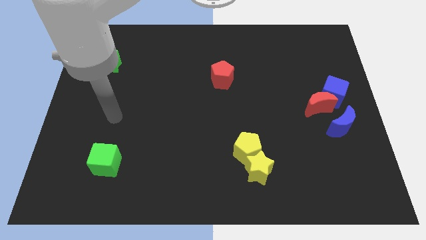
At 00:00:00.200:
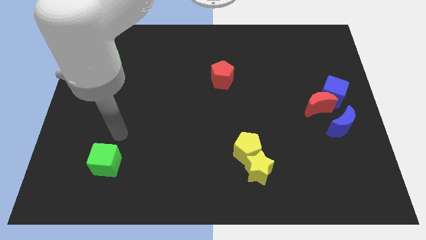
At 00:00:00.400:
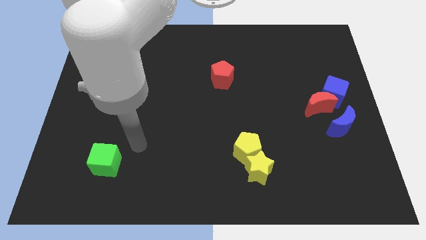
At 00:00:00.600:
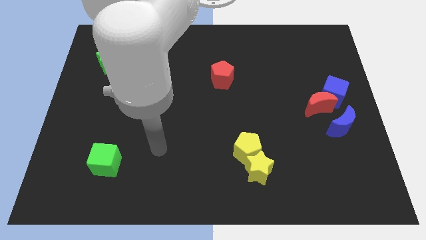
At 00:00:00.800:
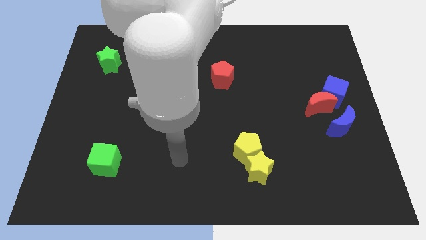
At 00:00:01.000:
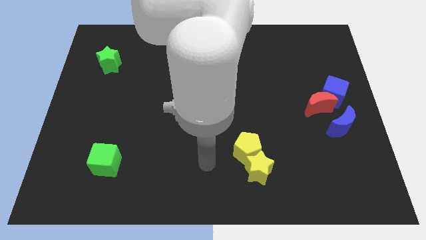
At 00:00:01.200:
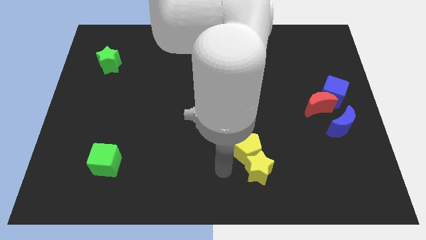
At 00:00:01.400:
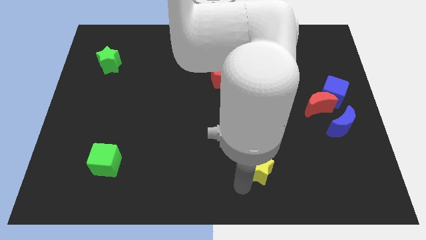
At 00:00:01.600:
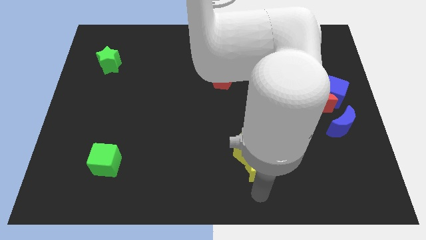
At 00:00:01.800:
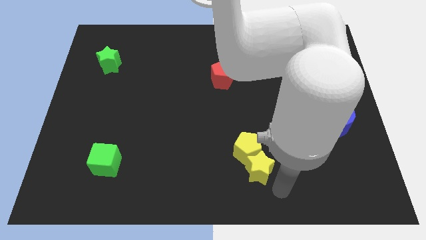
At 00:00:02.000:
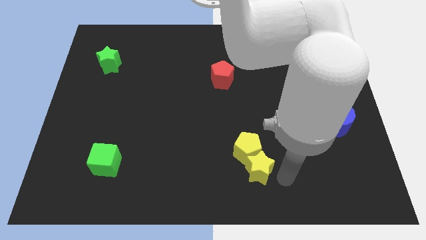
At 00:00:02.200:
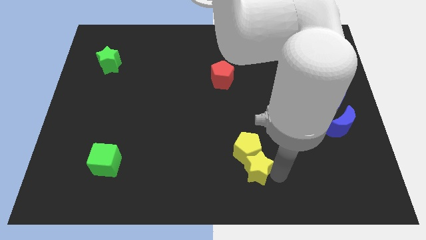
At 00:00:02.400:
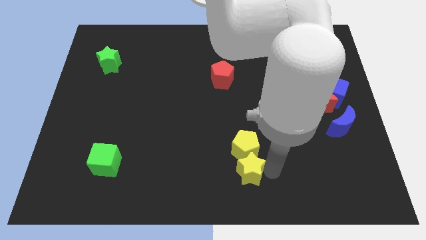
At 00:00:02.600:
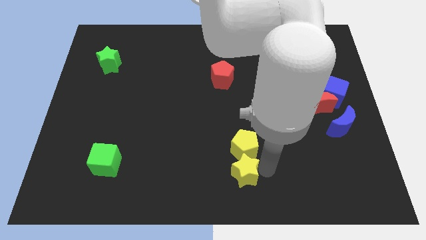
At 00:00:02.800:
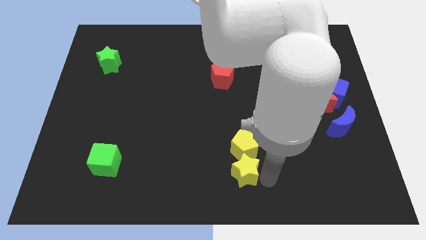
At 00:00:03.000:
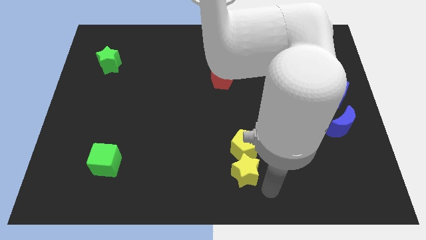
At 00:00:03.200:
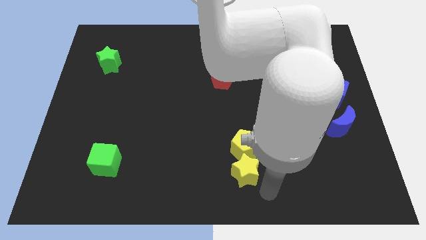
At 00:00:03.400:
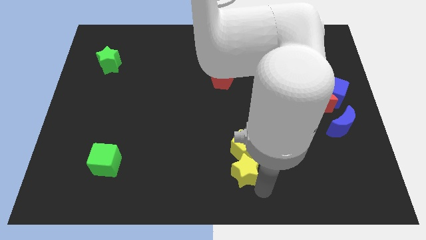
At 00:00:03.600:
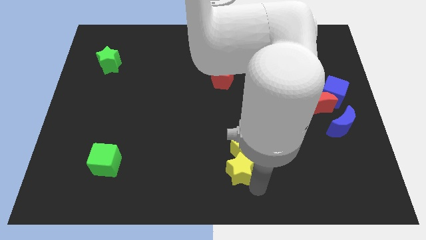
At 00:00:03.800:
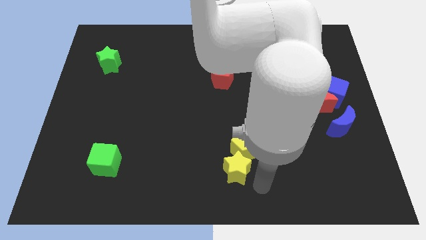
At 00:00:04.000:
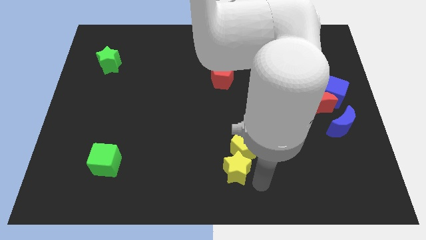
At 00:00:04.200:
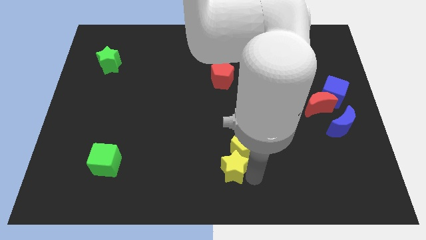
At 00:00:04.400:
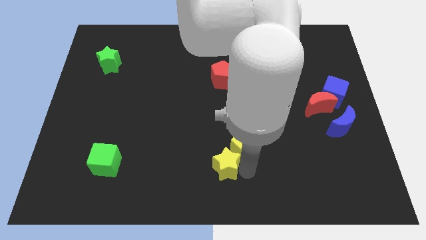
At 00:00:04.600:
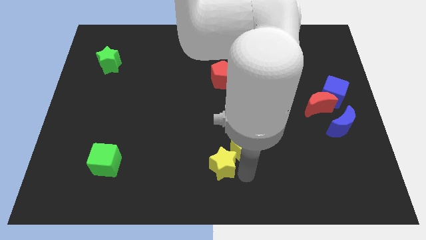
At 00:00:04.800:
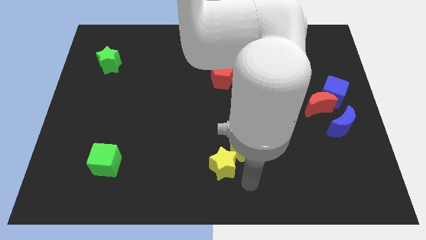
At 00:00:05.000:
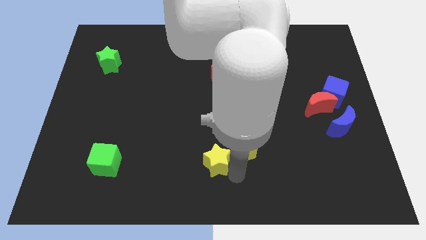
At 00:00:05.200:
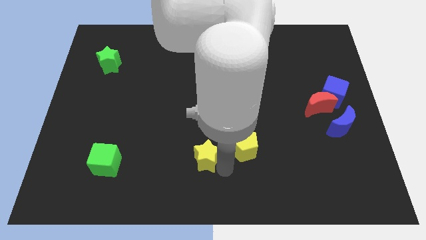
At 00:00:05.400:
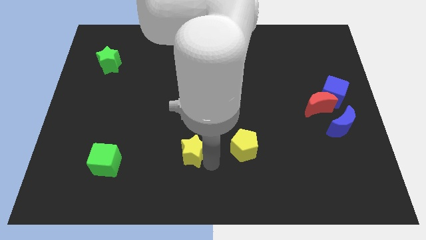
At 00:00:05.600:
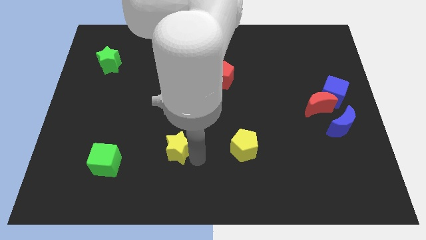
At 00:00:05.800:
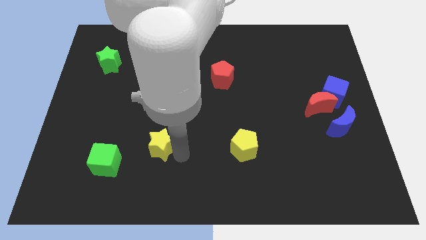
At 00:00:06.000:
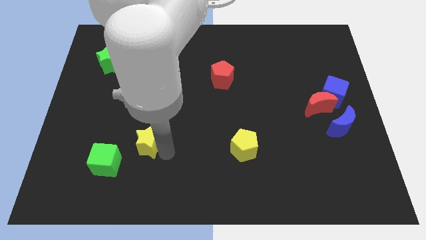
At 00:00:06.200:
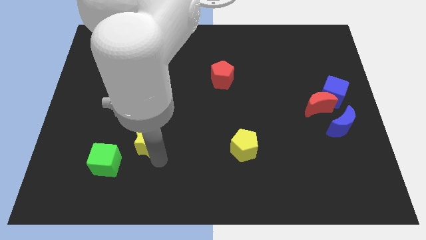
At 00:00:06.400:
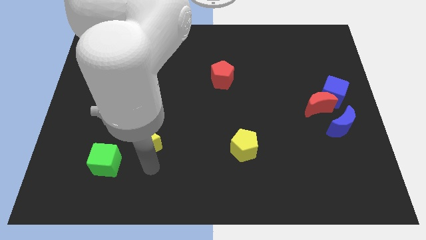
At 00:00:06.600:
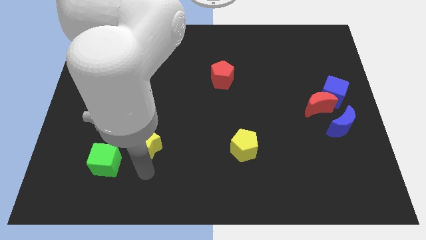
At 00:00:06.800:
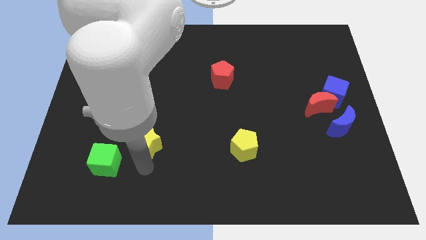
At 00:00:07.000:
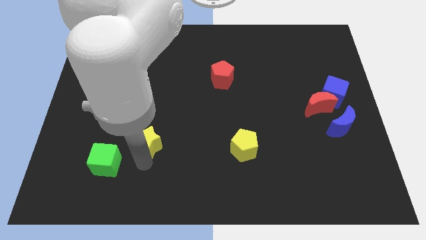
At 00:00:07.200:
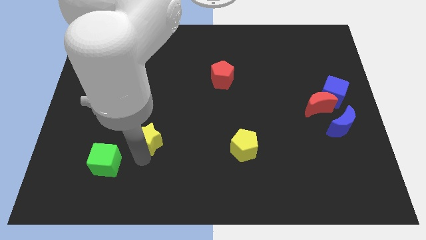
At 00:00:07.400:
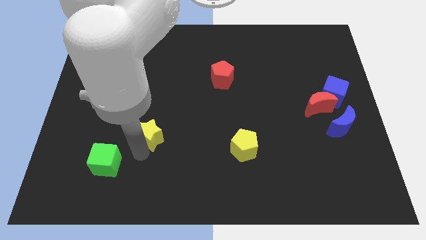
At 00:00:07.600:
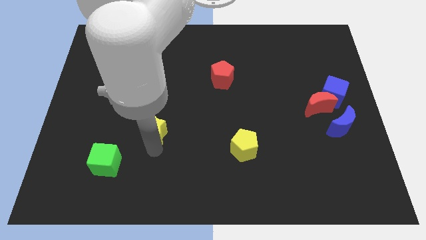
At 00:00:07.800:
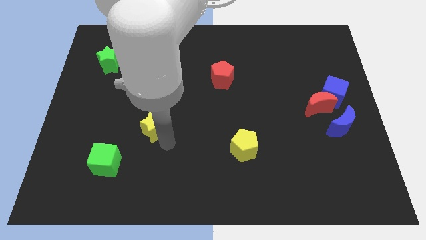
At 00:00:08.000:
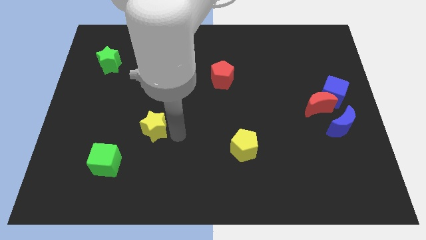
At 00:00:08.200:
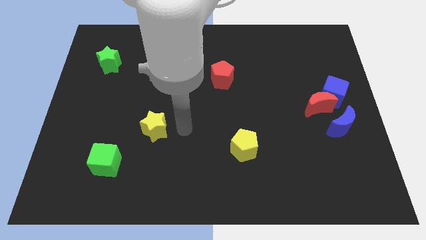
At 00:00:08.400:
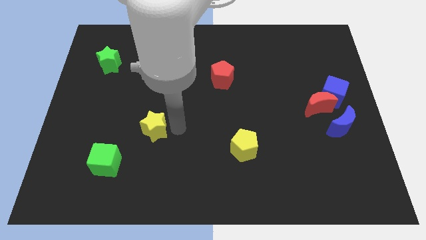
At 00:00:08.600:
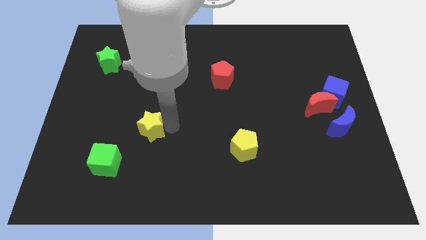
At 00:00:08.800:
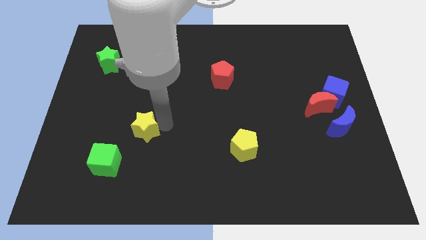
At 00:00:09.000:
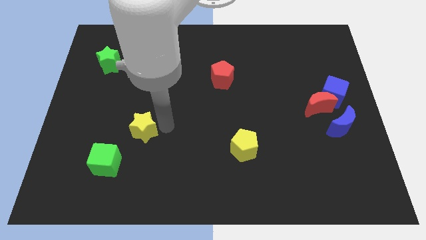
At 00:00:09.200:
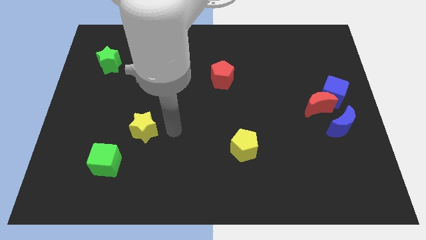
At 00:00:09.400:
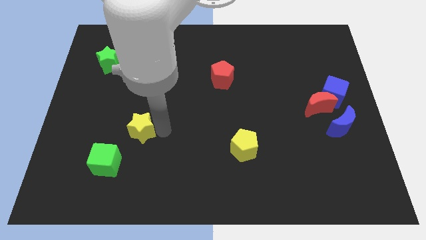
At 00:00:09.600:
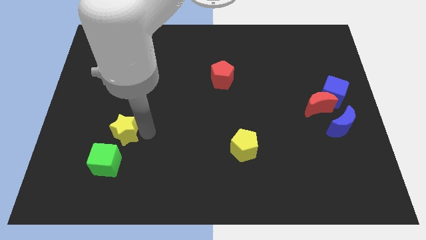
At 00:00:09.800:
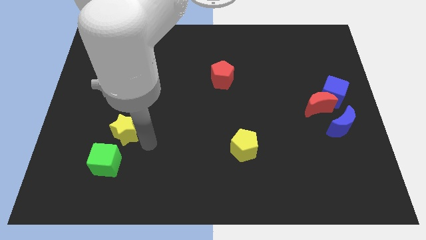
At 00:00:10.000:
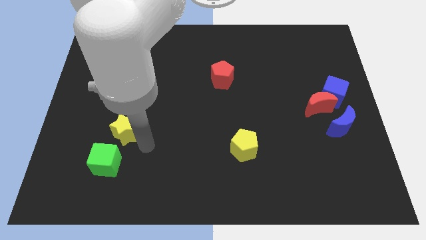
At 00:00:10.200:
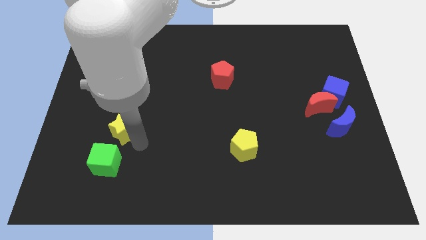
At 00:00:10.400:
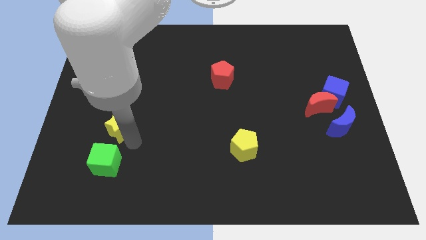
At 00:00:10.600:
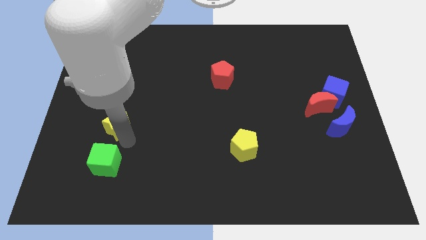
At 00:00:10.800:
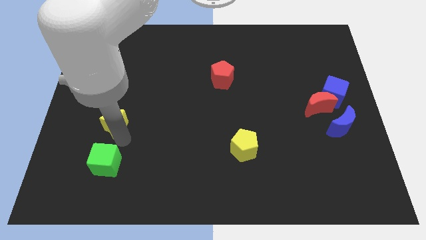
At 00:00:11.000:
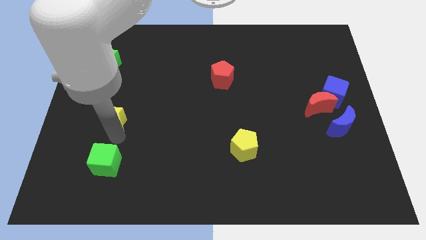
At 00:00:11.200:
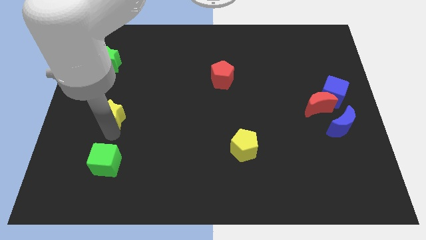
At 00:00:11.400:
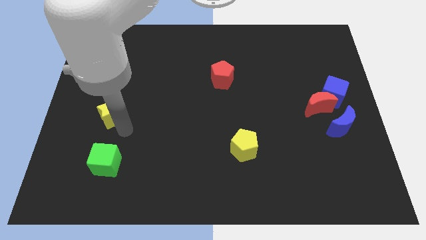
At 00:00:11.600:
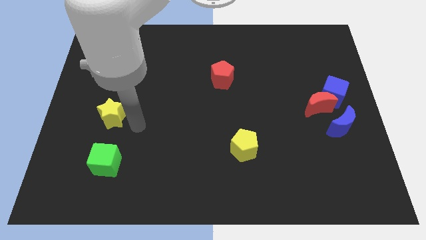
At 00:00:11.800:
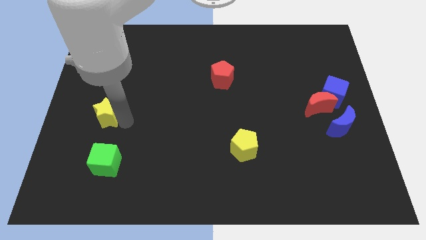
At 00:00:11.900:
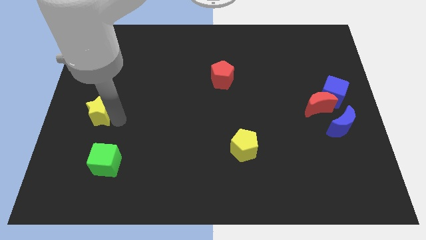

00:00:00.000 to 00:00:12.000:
slide the yellow star to the left side of the board
